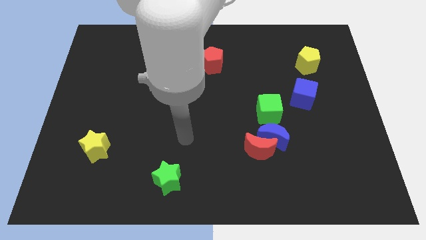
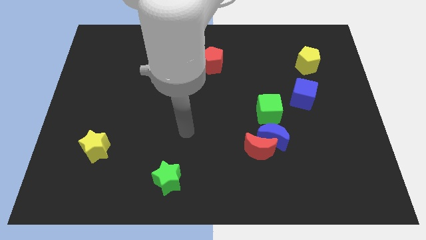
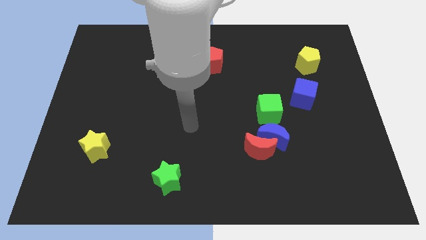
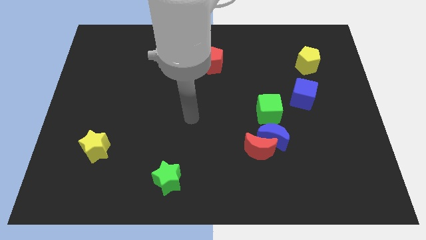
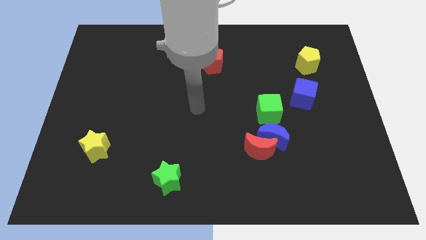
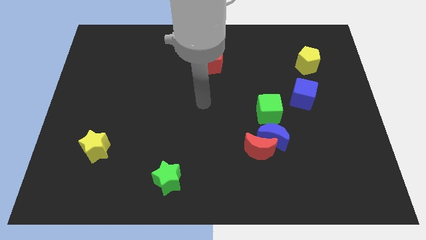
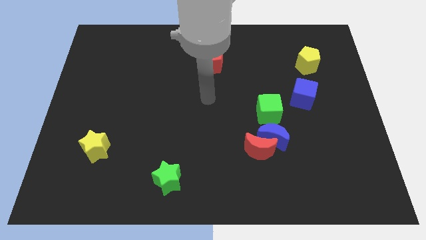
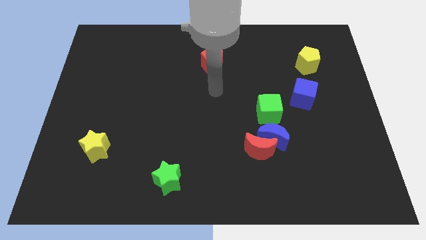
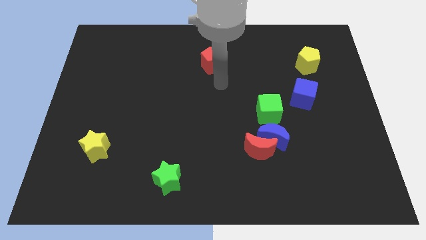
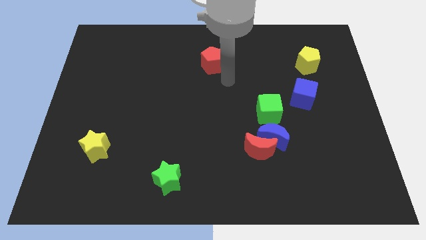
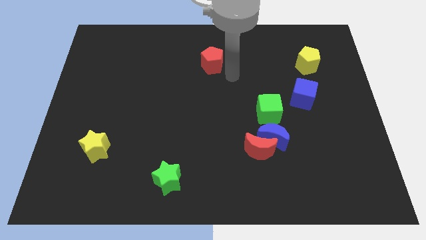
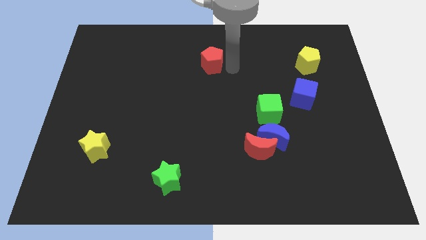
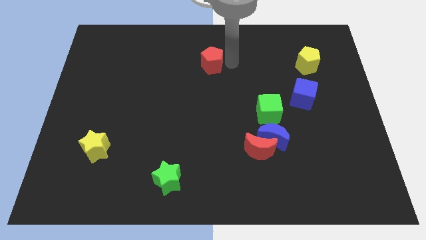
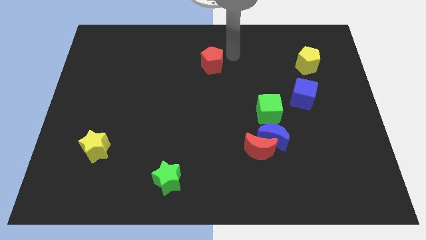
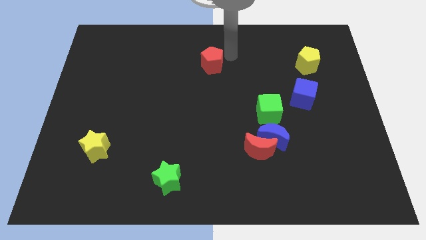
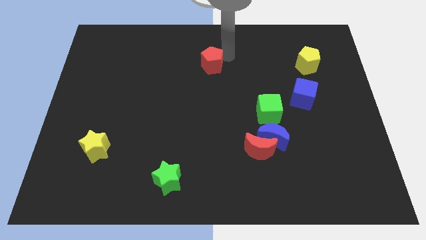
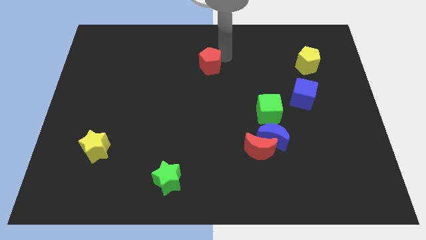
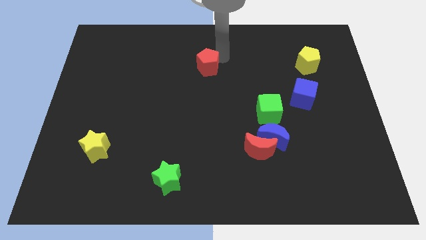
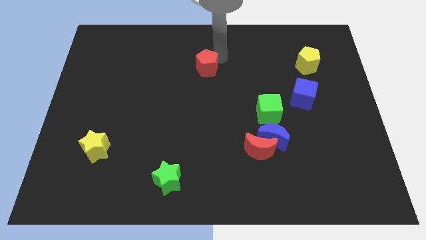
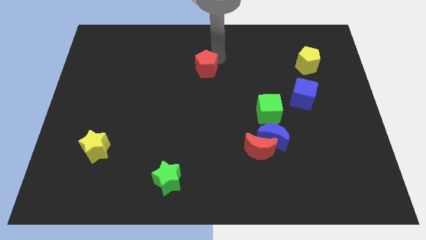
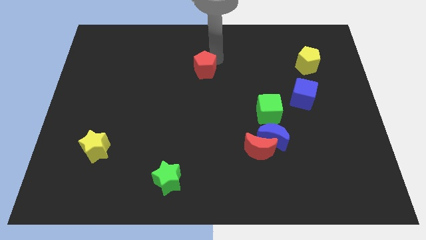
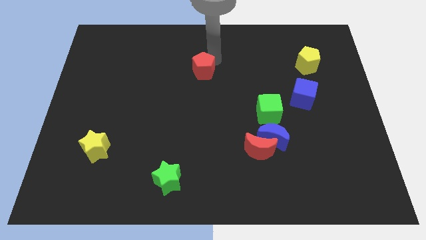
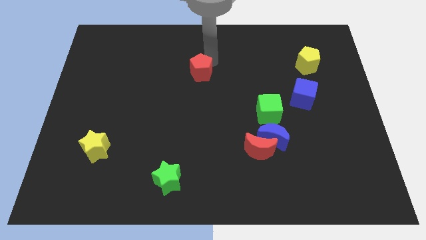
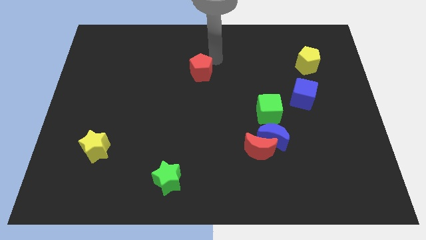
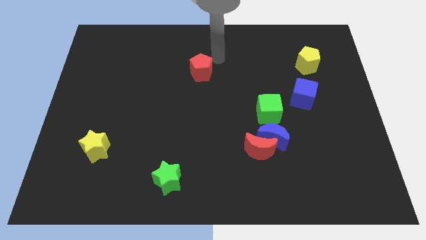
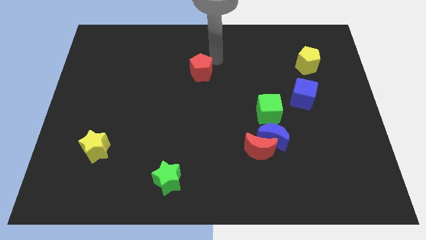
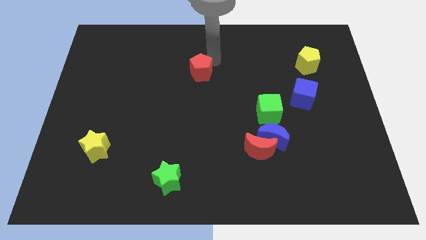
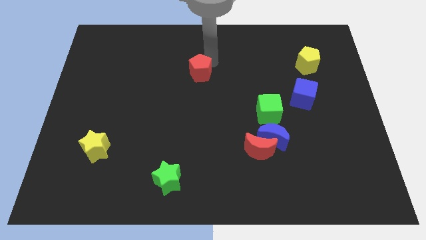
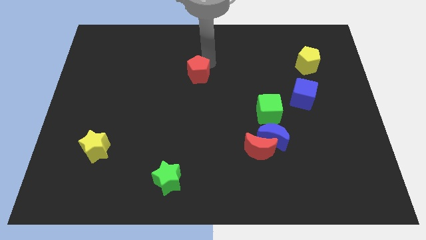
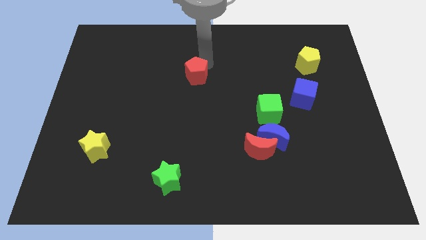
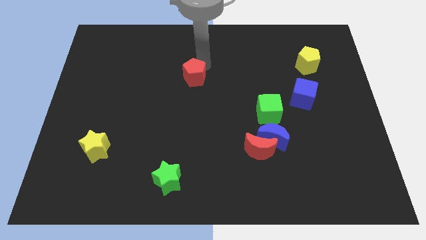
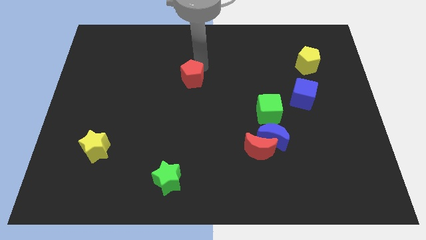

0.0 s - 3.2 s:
slightly slide the red pentagon downwards and left

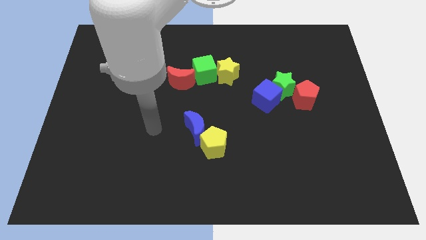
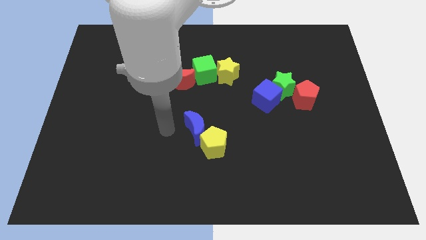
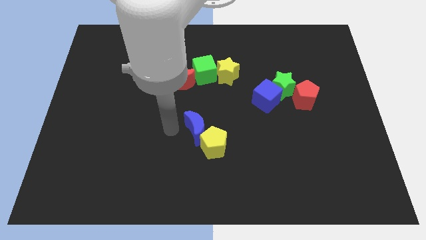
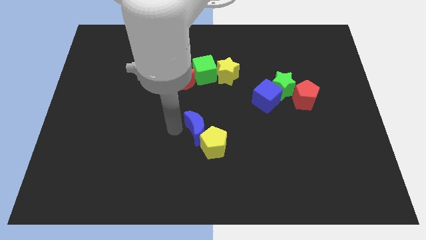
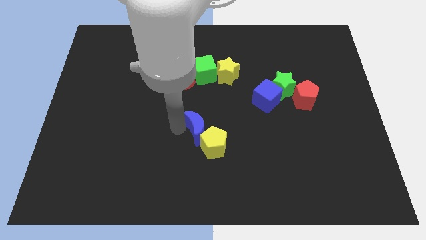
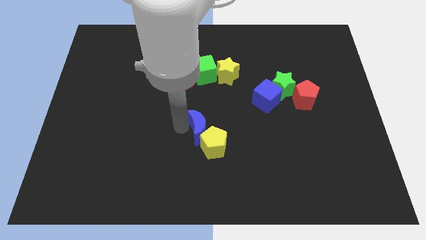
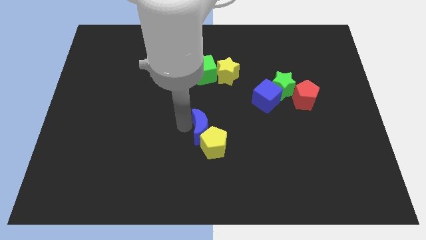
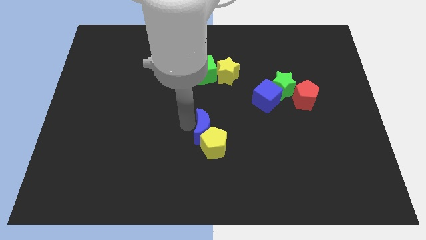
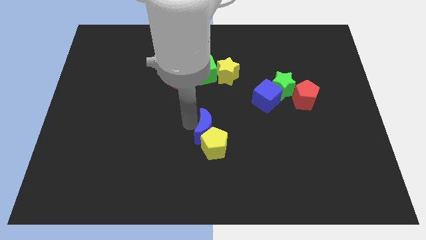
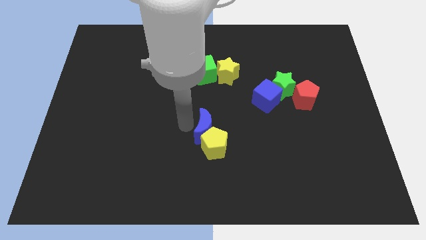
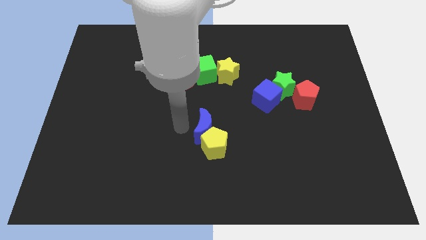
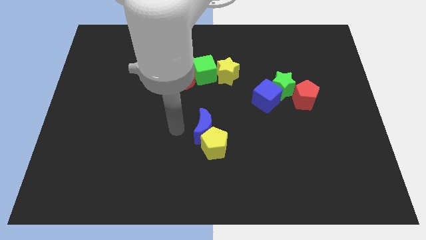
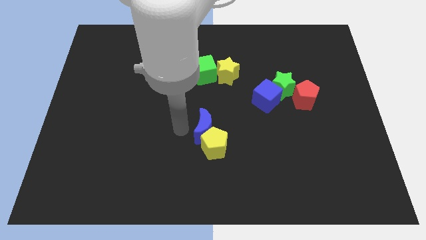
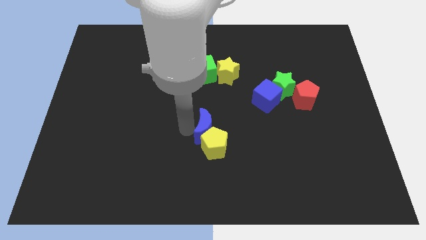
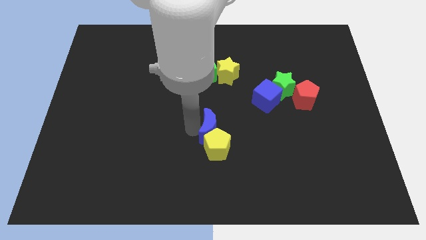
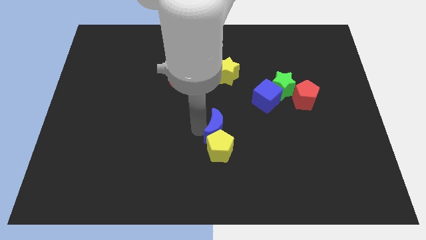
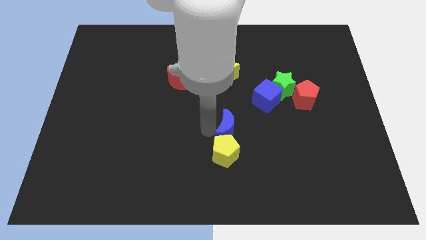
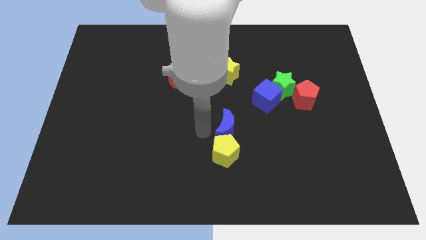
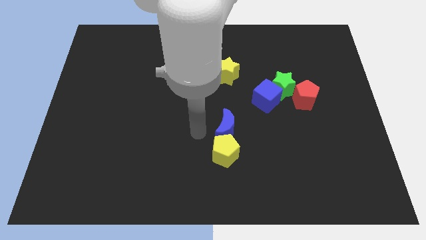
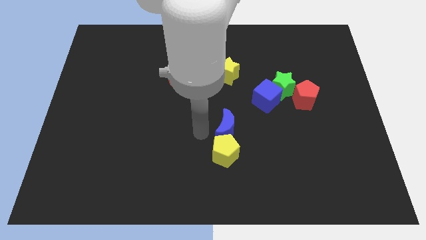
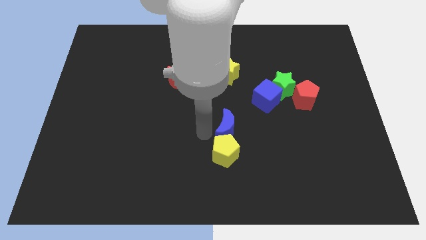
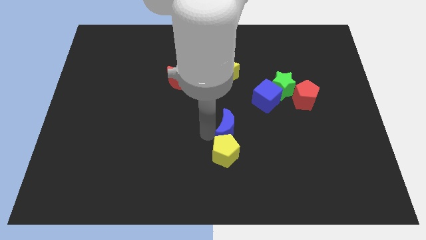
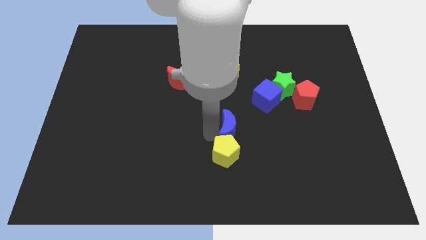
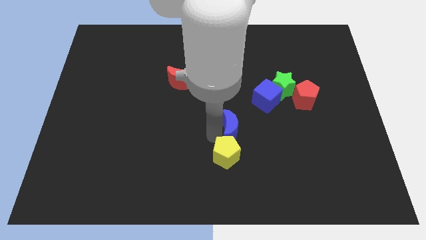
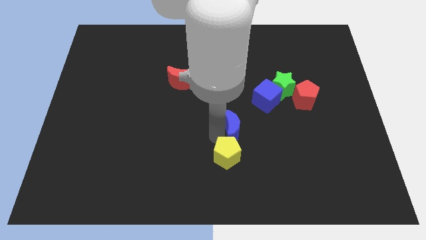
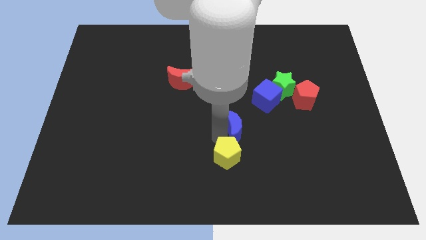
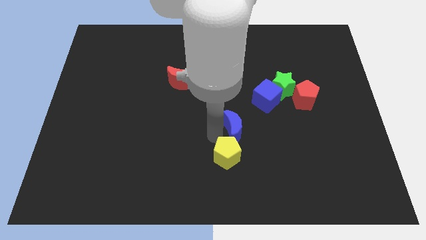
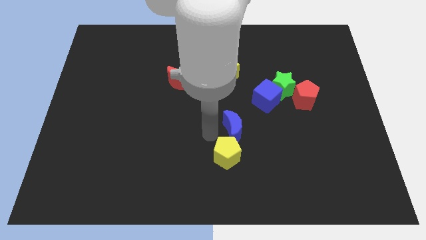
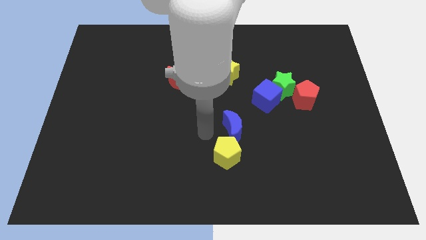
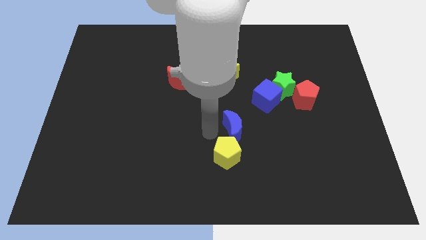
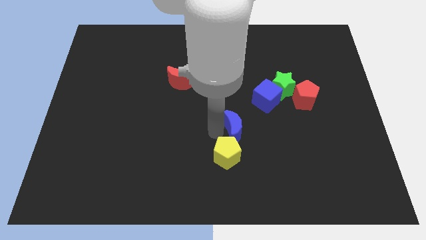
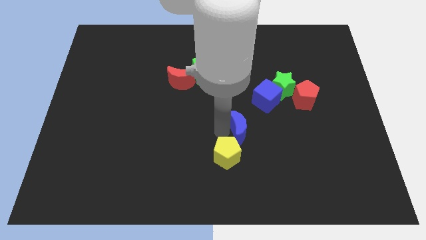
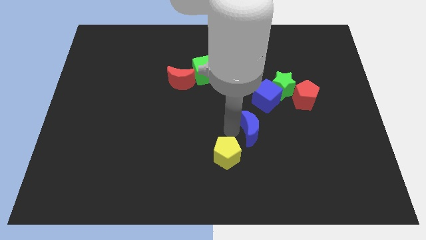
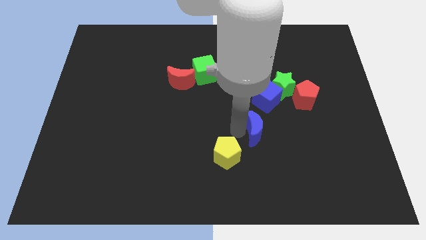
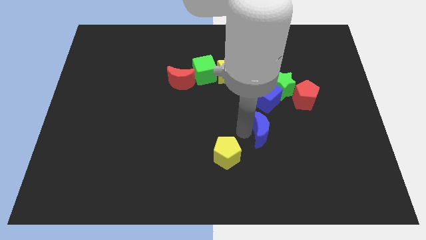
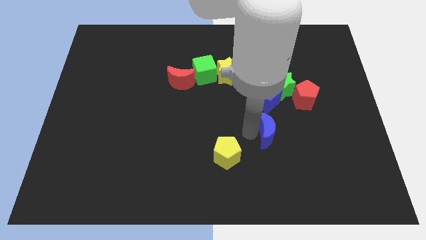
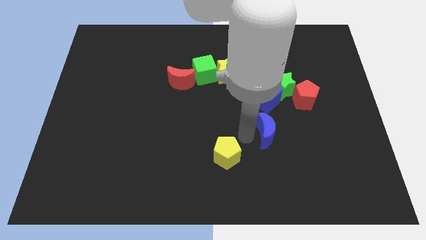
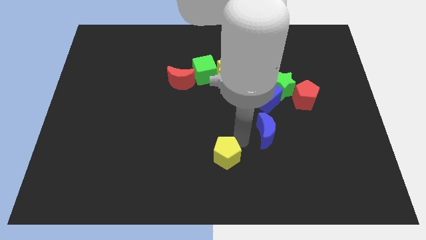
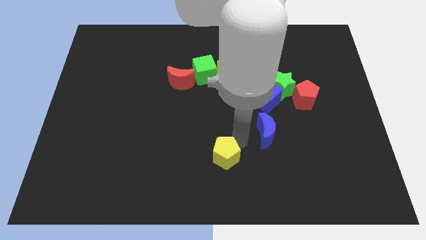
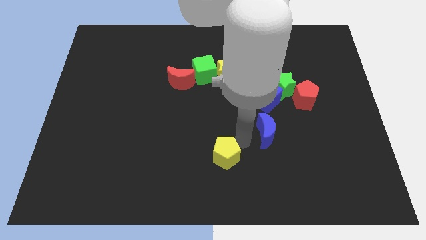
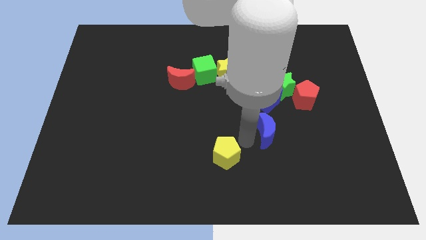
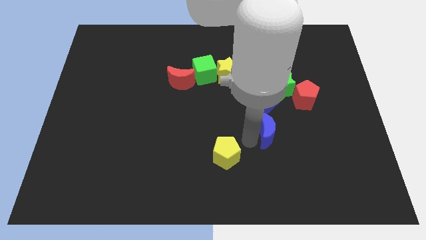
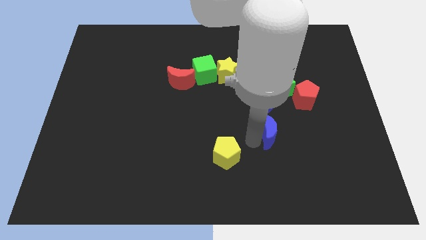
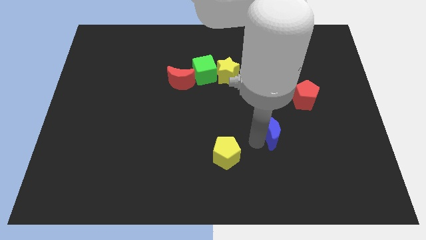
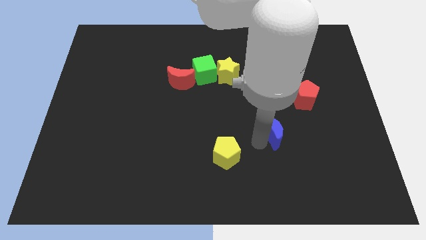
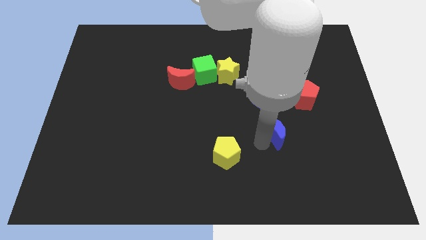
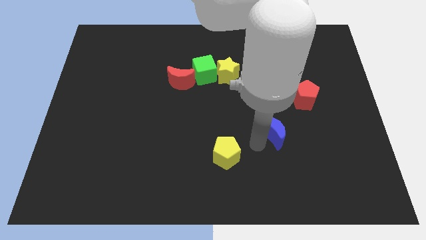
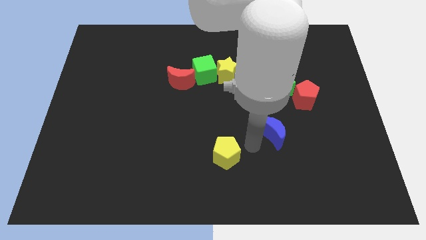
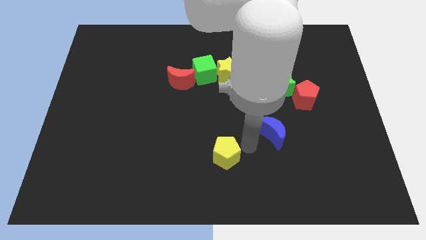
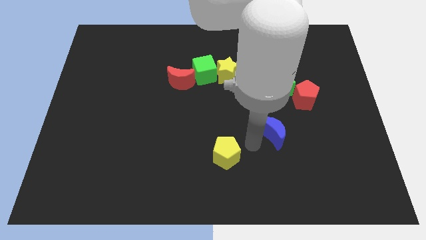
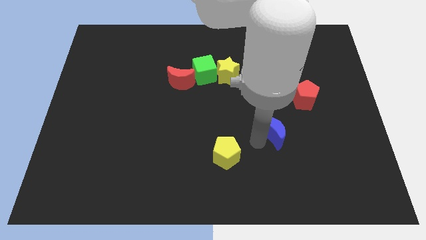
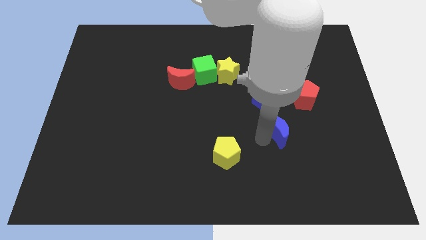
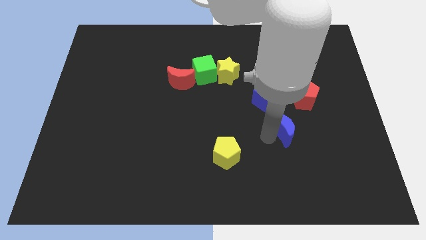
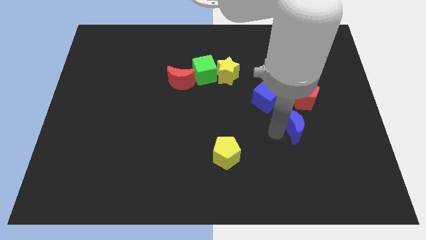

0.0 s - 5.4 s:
push the blue moon to the right
